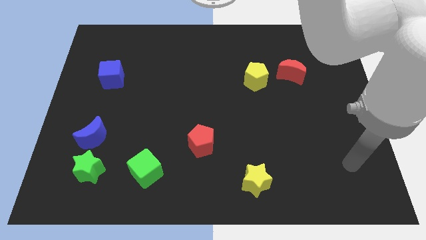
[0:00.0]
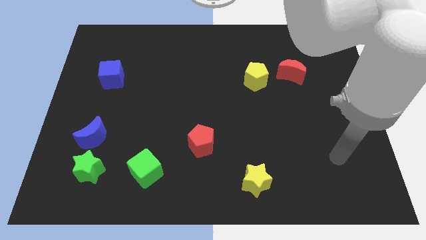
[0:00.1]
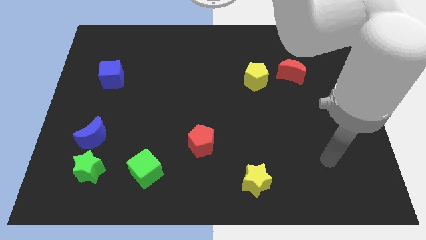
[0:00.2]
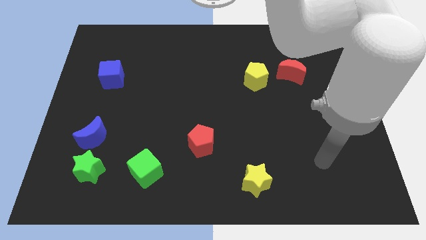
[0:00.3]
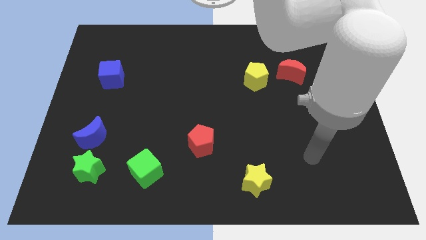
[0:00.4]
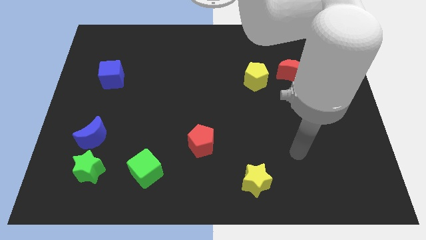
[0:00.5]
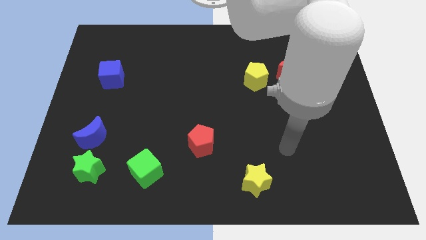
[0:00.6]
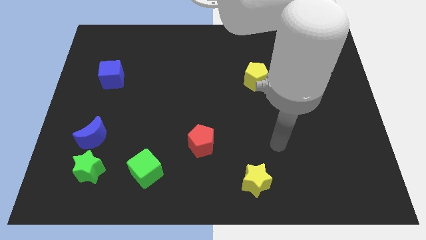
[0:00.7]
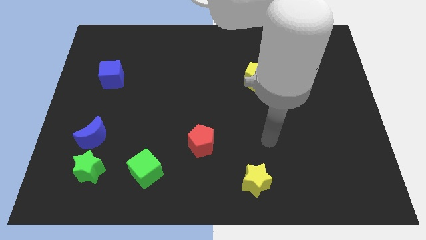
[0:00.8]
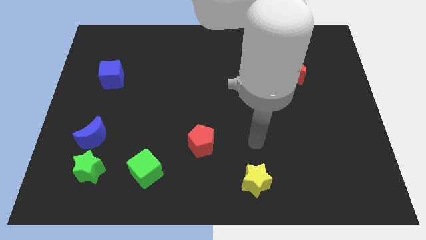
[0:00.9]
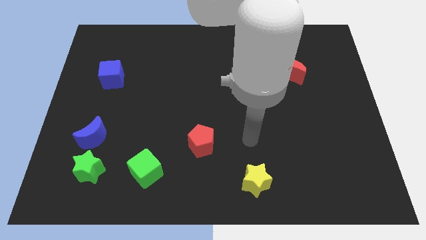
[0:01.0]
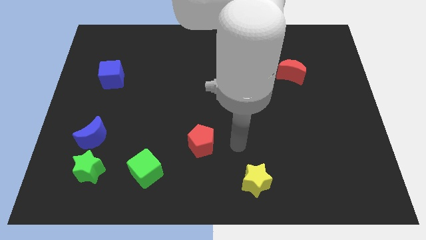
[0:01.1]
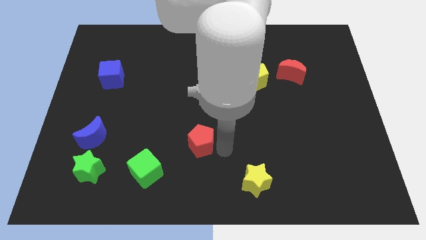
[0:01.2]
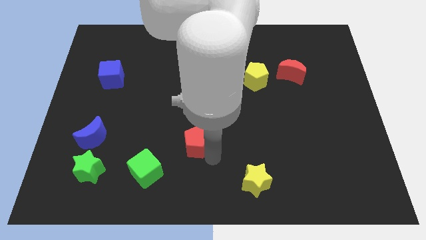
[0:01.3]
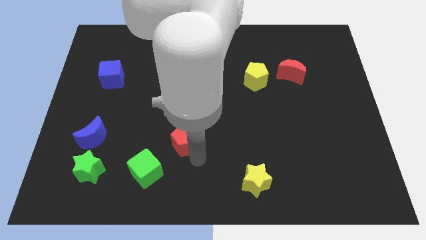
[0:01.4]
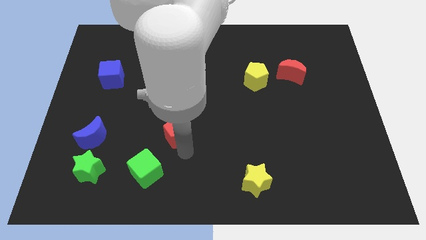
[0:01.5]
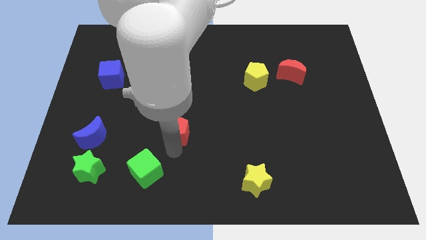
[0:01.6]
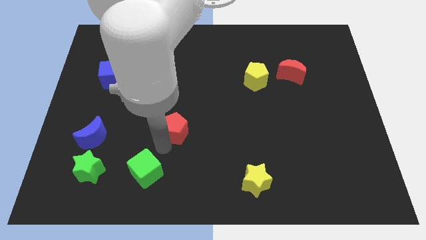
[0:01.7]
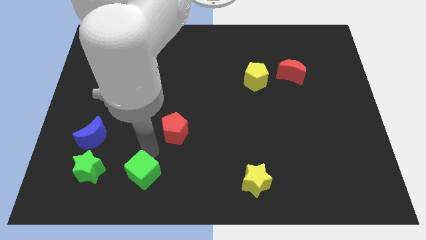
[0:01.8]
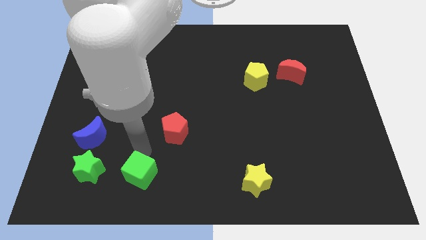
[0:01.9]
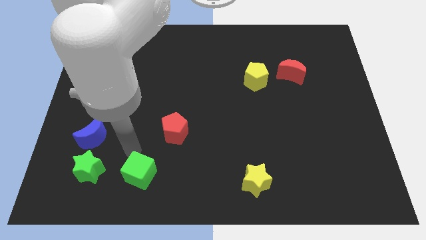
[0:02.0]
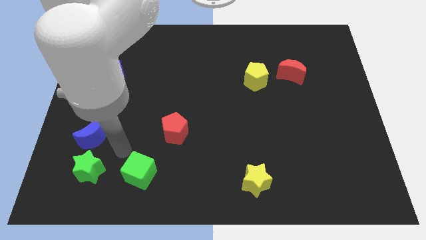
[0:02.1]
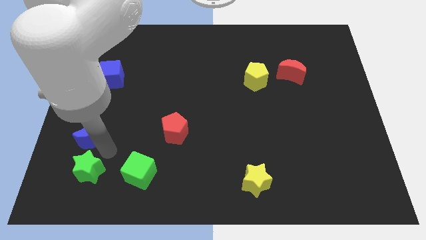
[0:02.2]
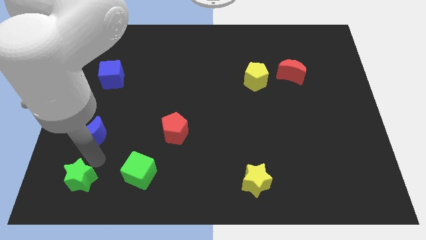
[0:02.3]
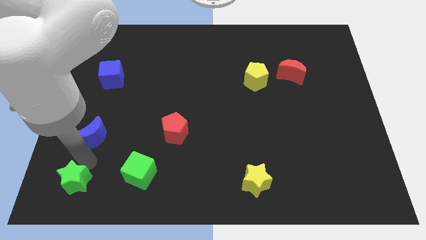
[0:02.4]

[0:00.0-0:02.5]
separate the blue moon from the green star

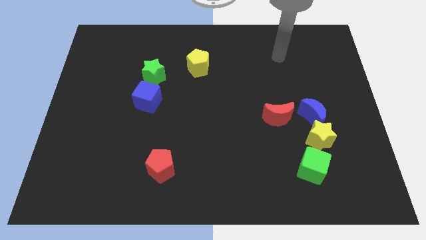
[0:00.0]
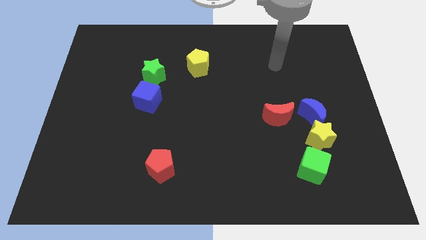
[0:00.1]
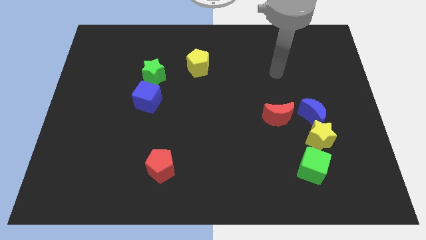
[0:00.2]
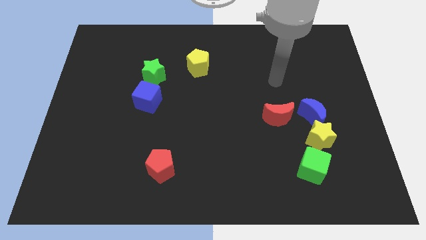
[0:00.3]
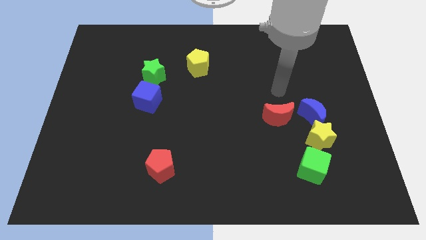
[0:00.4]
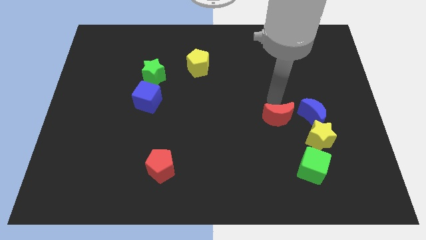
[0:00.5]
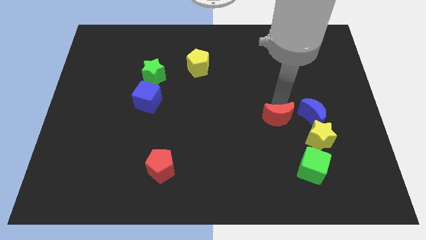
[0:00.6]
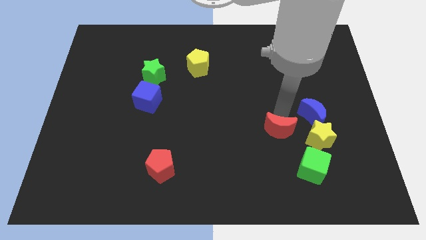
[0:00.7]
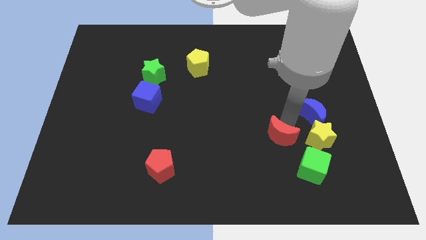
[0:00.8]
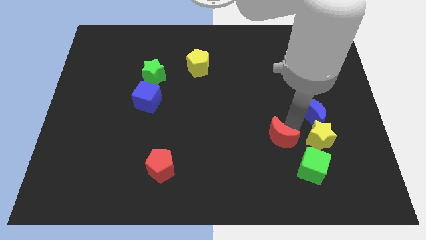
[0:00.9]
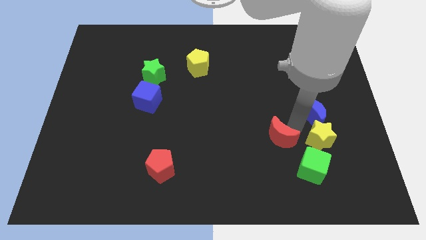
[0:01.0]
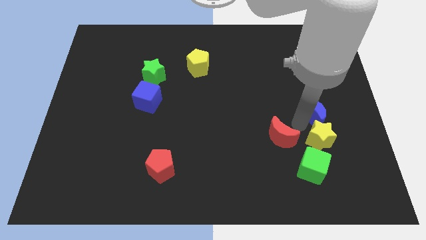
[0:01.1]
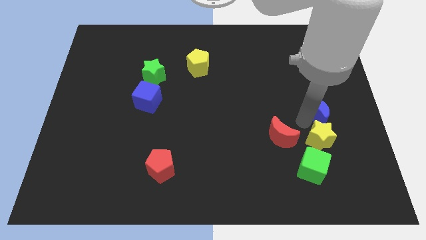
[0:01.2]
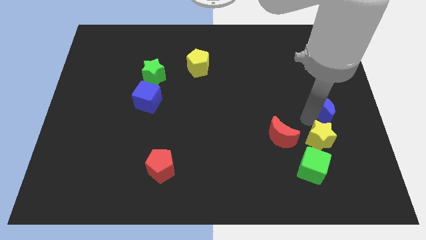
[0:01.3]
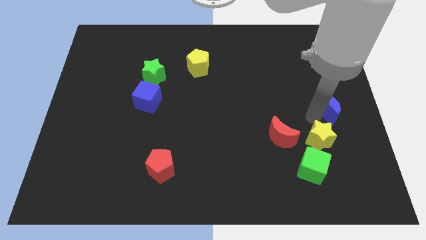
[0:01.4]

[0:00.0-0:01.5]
move the blue moon away from the yellow star and red moon

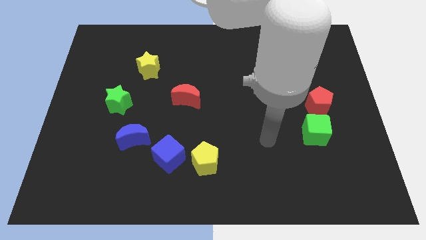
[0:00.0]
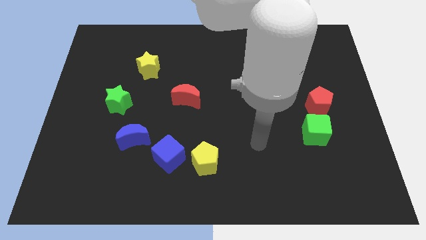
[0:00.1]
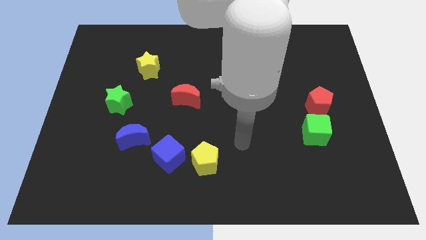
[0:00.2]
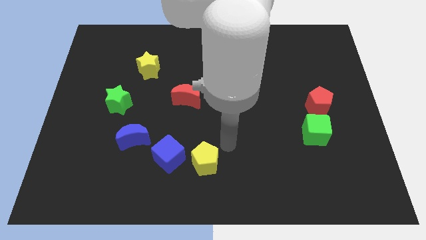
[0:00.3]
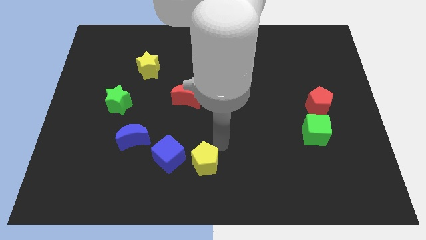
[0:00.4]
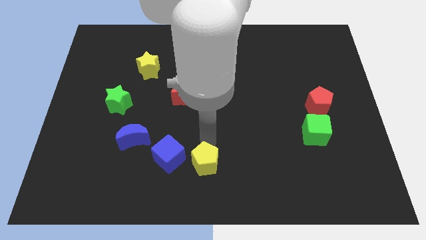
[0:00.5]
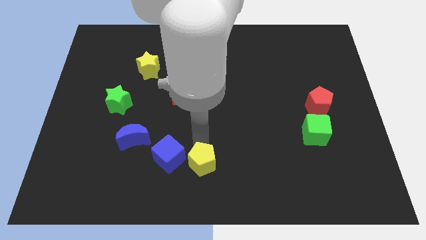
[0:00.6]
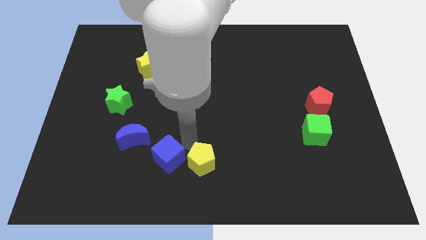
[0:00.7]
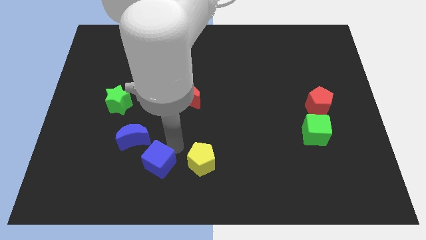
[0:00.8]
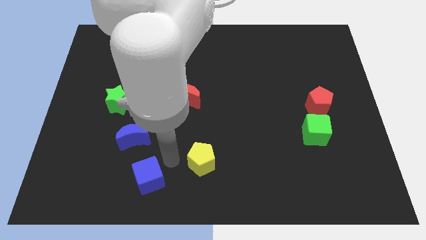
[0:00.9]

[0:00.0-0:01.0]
pull the yellow pentagon apart from the blue cube

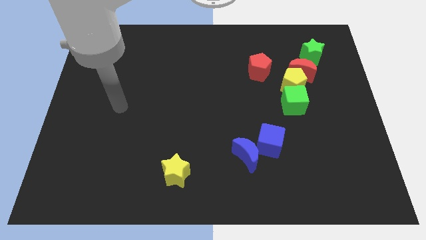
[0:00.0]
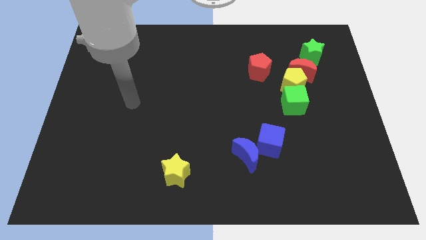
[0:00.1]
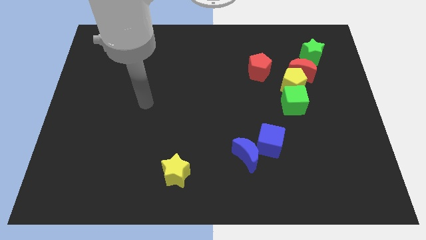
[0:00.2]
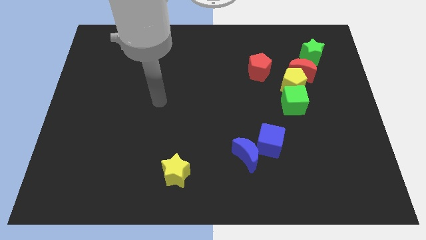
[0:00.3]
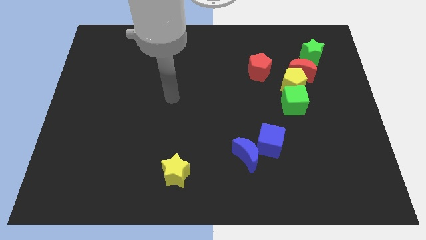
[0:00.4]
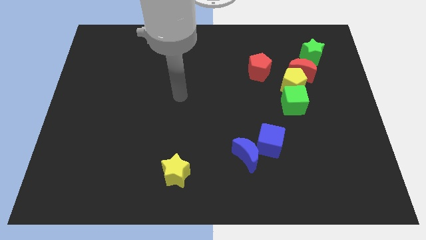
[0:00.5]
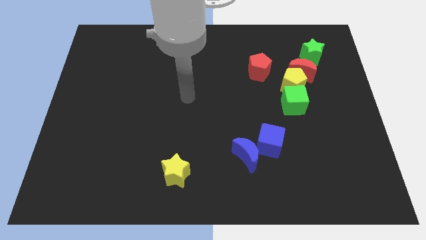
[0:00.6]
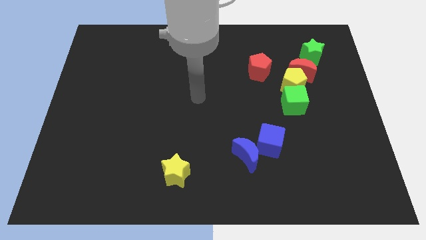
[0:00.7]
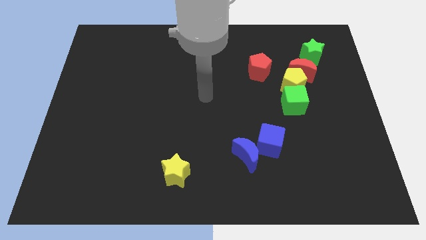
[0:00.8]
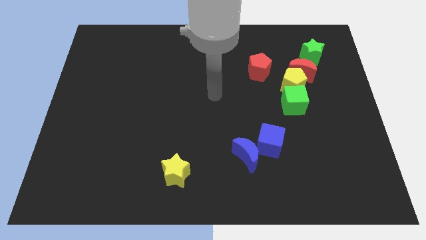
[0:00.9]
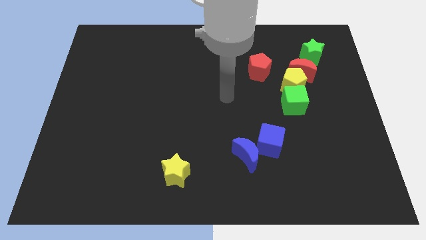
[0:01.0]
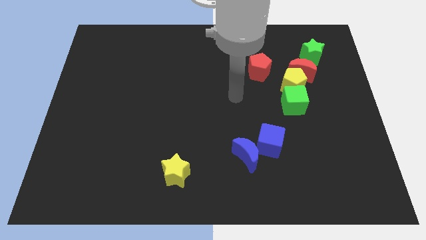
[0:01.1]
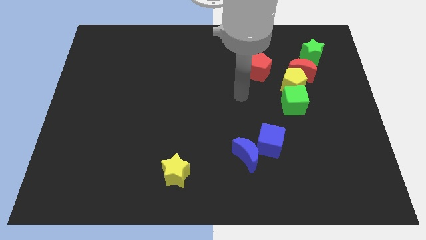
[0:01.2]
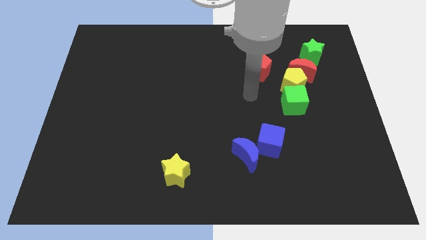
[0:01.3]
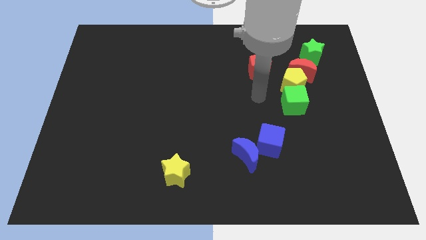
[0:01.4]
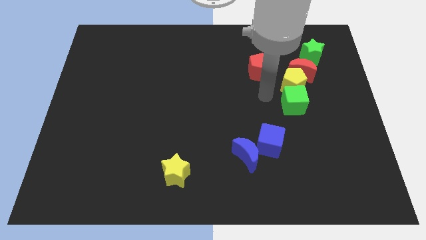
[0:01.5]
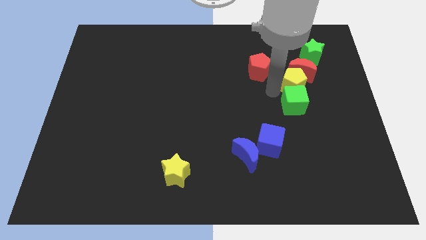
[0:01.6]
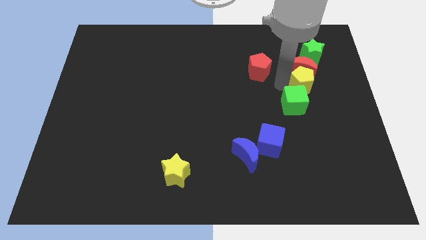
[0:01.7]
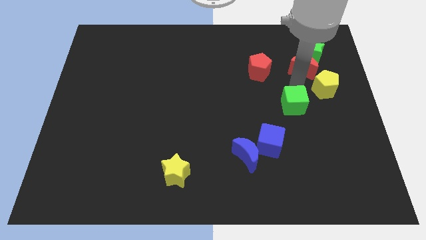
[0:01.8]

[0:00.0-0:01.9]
move the green cube away from the yellow pentagon

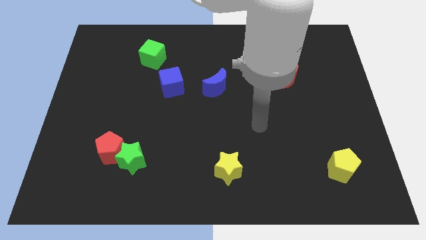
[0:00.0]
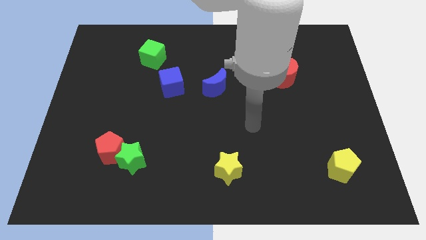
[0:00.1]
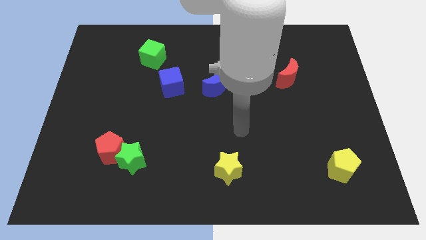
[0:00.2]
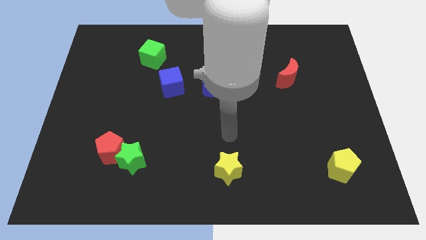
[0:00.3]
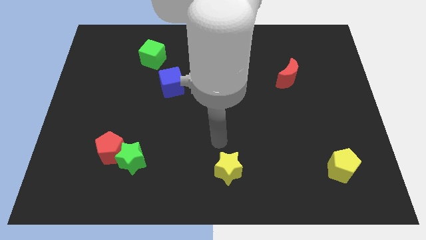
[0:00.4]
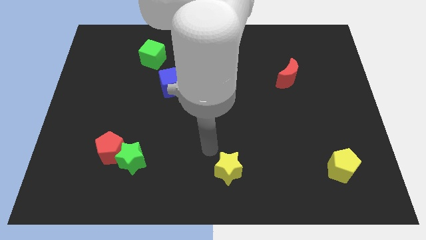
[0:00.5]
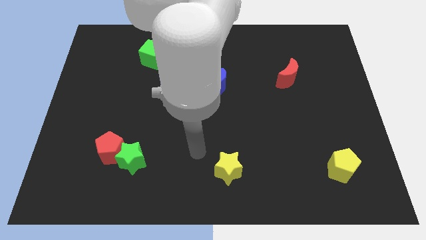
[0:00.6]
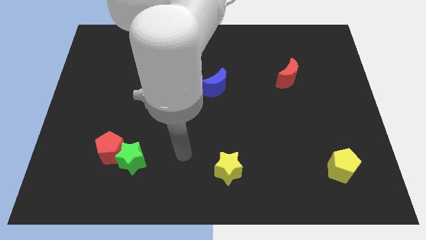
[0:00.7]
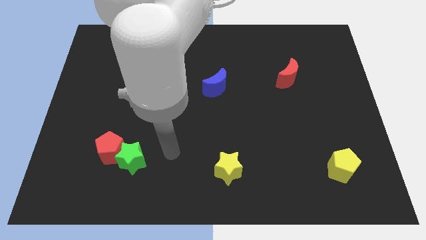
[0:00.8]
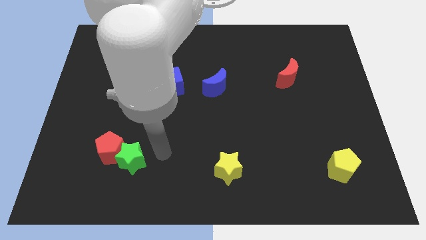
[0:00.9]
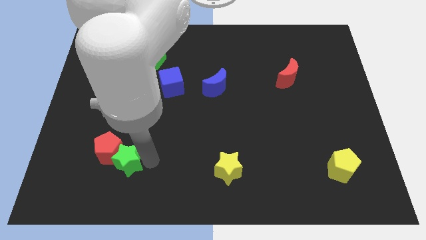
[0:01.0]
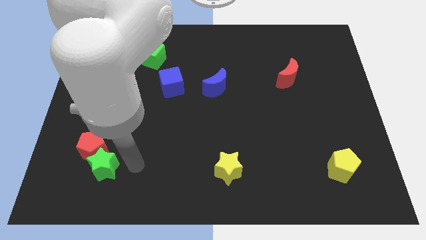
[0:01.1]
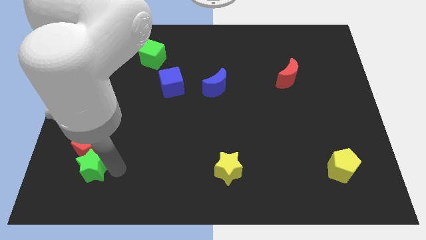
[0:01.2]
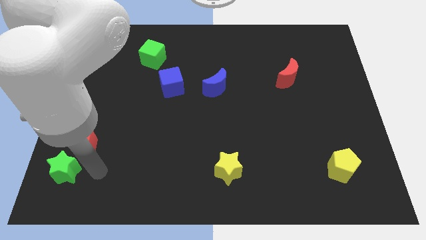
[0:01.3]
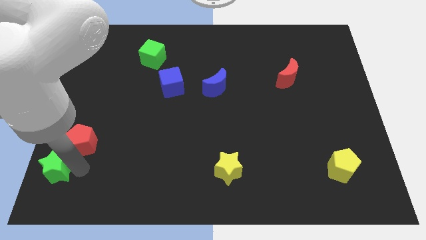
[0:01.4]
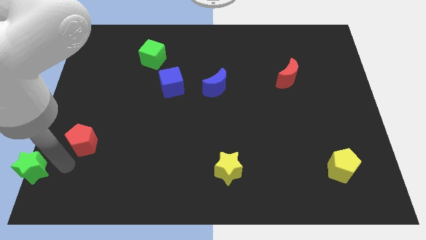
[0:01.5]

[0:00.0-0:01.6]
pull the red pentagon apart from the green star

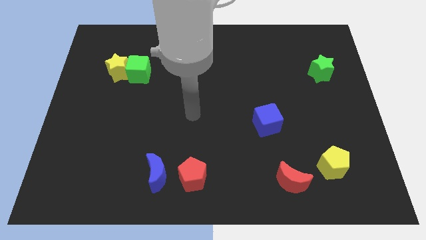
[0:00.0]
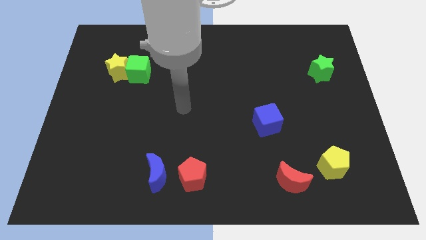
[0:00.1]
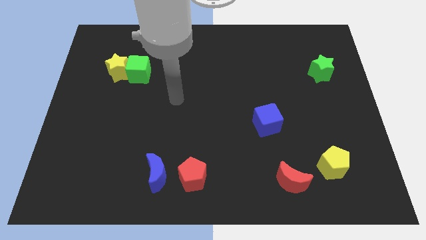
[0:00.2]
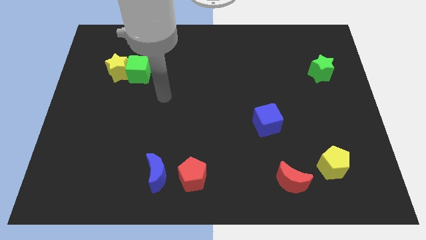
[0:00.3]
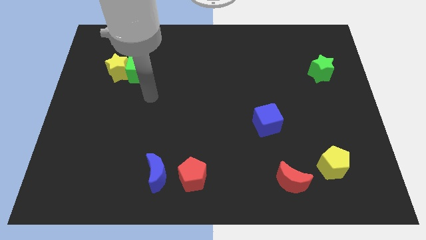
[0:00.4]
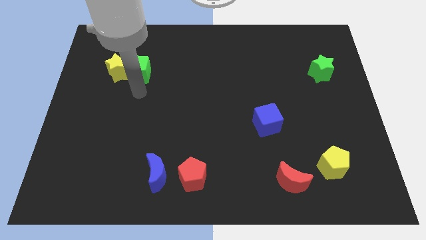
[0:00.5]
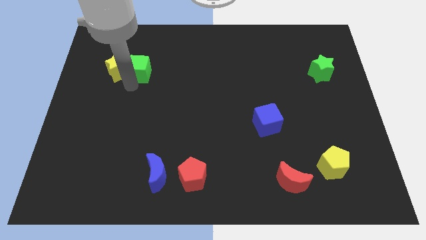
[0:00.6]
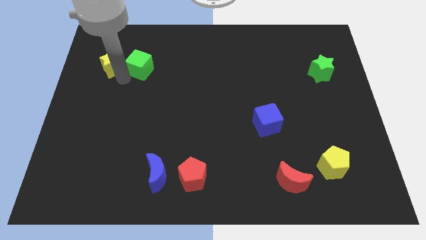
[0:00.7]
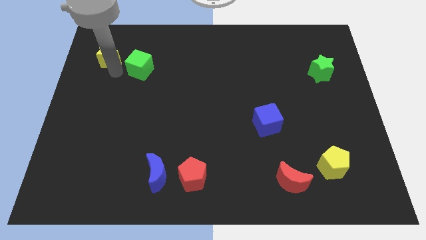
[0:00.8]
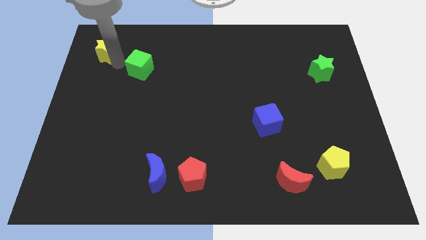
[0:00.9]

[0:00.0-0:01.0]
move the green cube away from the yellow star
